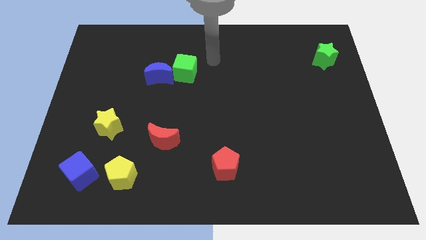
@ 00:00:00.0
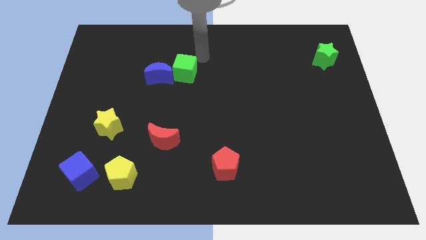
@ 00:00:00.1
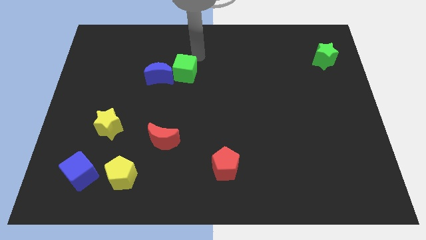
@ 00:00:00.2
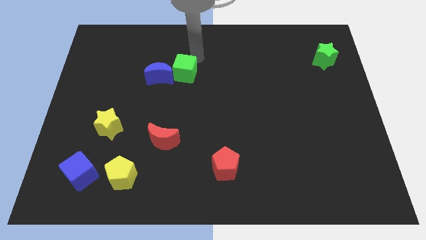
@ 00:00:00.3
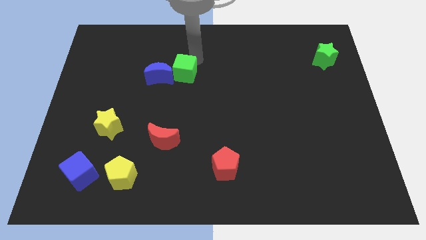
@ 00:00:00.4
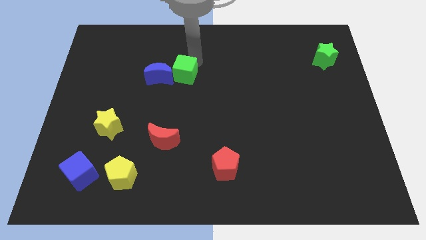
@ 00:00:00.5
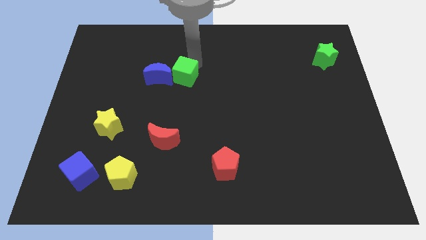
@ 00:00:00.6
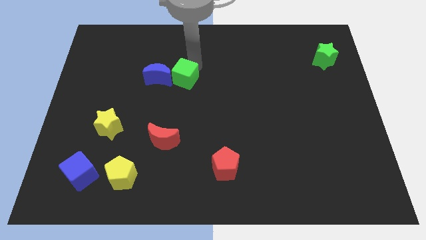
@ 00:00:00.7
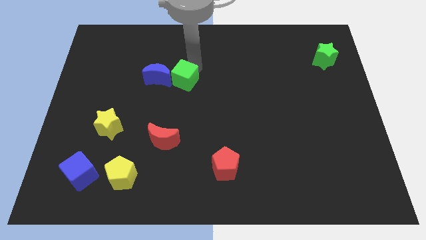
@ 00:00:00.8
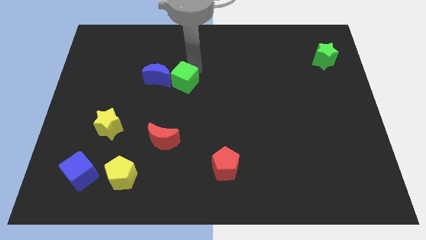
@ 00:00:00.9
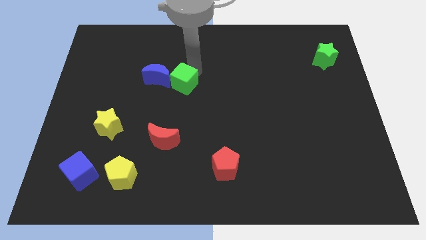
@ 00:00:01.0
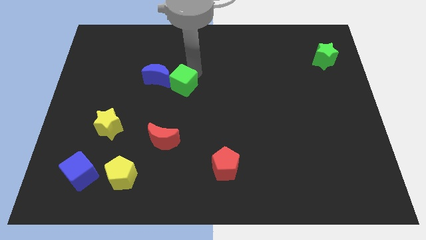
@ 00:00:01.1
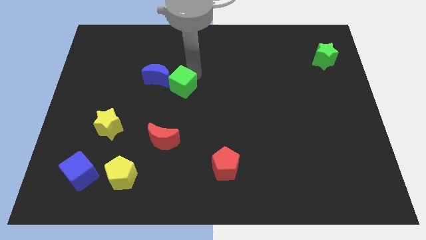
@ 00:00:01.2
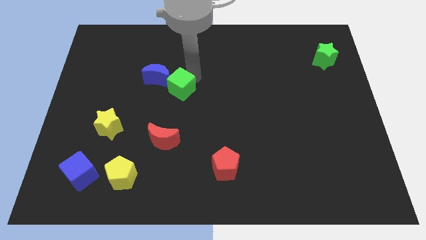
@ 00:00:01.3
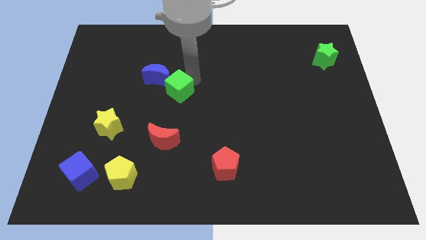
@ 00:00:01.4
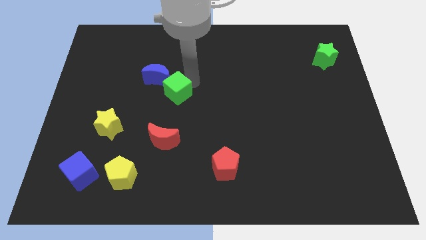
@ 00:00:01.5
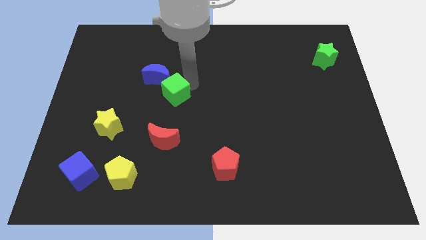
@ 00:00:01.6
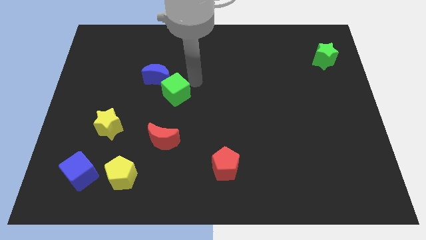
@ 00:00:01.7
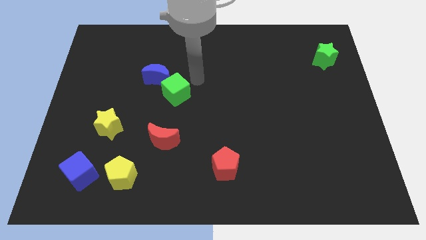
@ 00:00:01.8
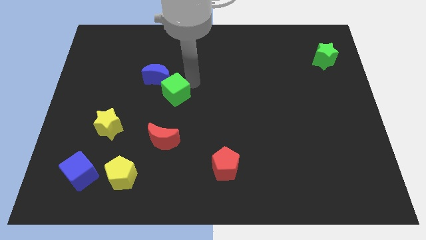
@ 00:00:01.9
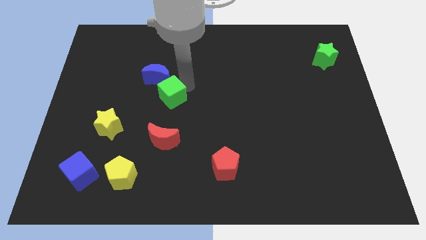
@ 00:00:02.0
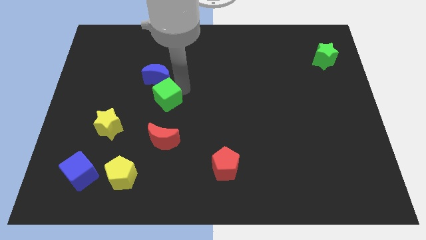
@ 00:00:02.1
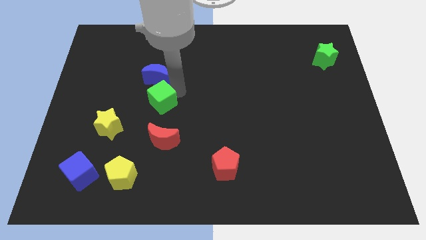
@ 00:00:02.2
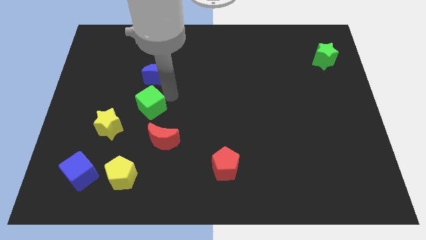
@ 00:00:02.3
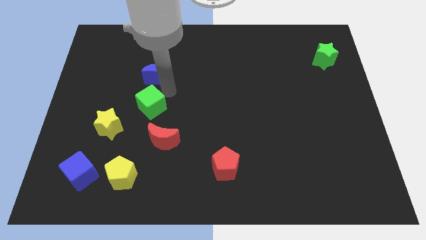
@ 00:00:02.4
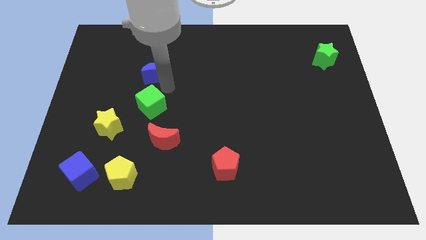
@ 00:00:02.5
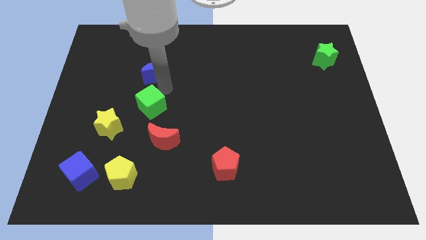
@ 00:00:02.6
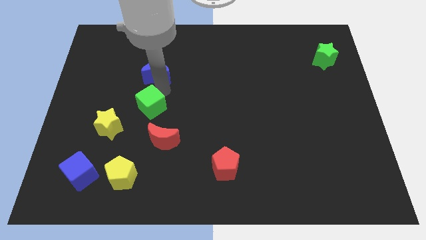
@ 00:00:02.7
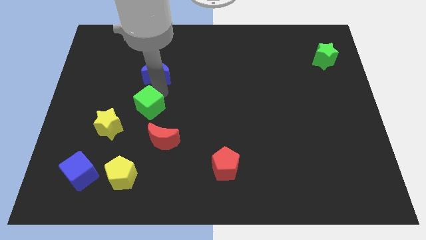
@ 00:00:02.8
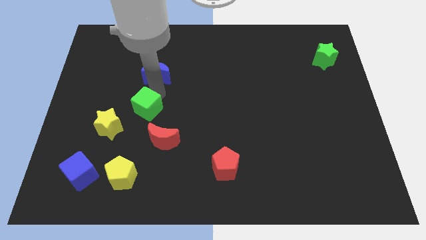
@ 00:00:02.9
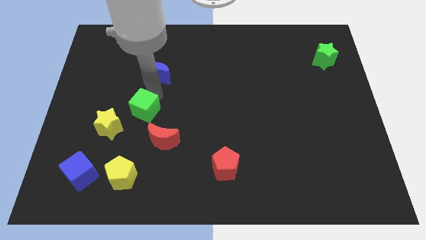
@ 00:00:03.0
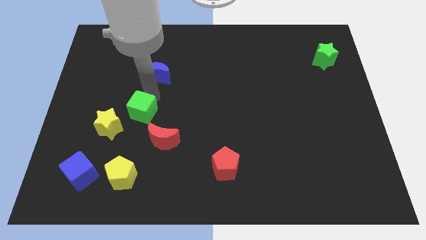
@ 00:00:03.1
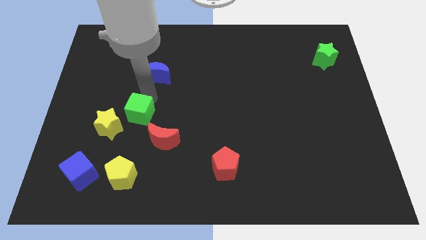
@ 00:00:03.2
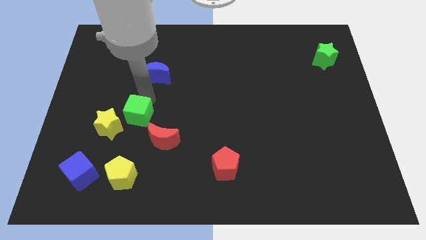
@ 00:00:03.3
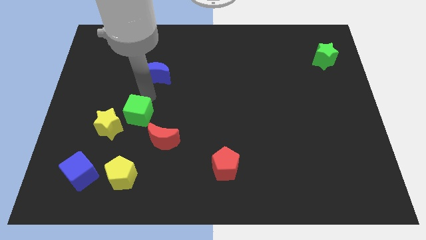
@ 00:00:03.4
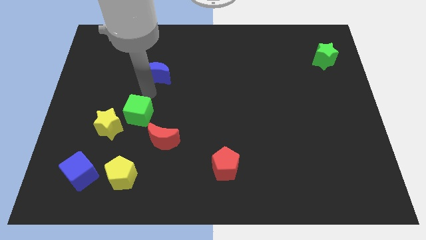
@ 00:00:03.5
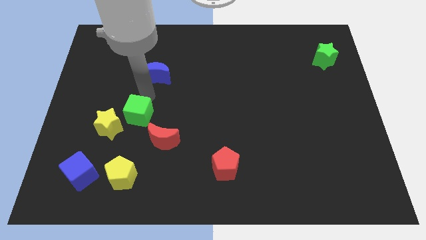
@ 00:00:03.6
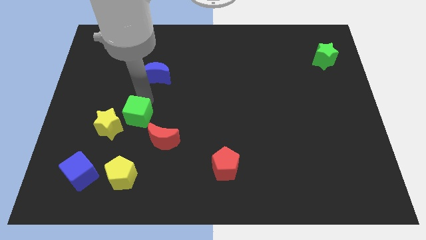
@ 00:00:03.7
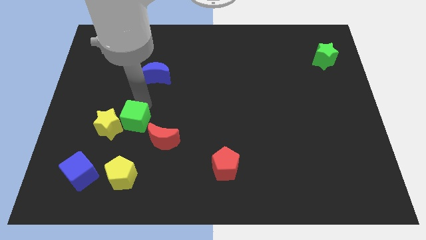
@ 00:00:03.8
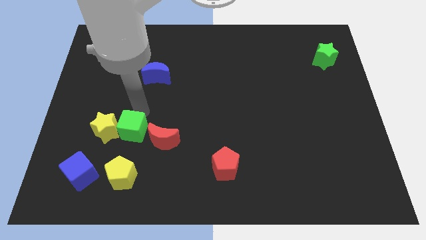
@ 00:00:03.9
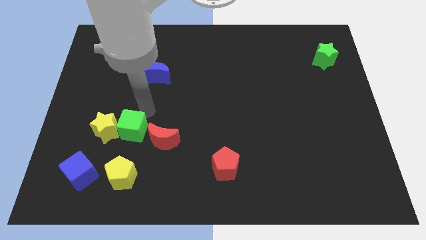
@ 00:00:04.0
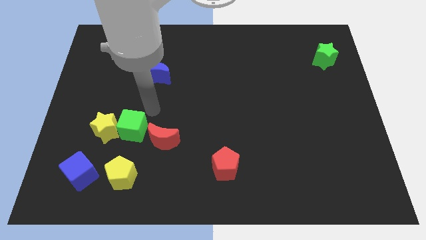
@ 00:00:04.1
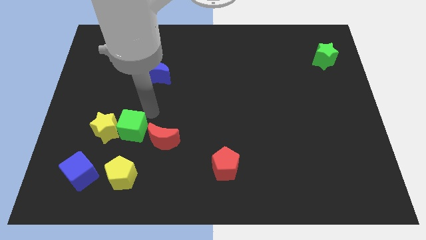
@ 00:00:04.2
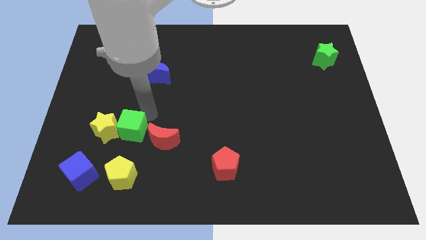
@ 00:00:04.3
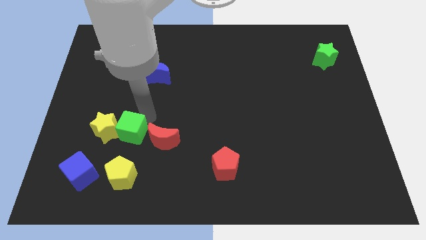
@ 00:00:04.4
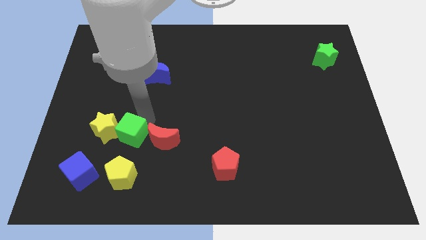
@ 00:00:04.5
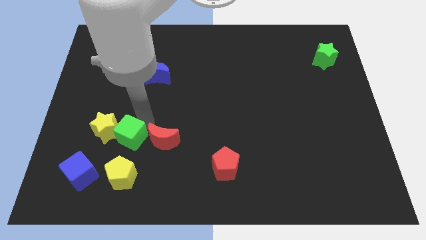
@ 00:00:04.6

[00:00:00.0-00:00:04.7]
put the green cube to the top right side of the blue cube

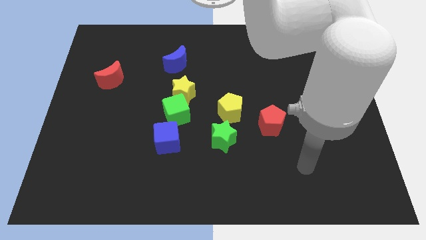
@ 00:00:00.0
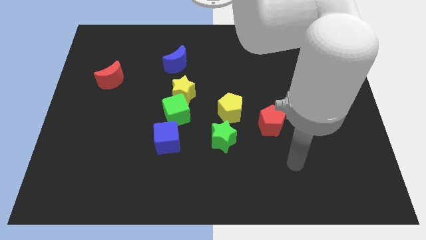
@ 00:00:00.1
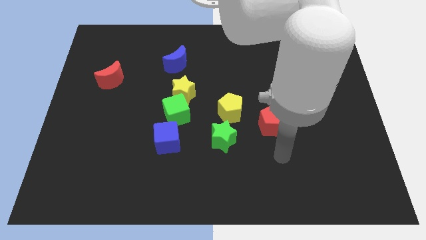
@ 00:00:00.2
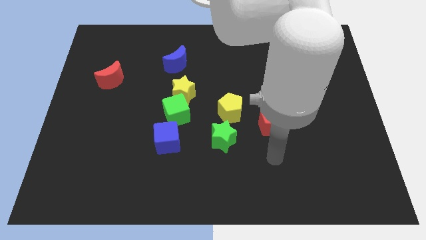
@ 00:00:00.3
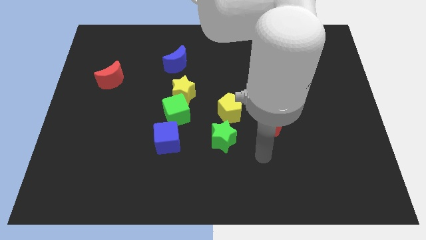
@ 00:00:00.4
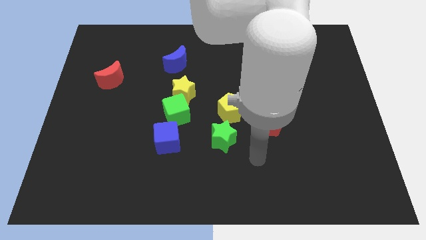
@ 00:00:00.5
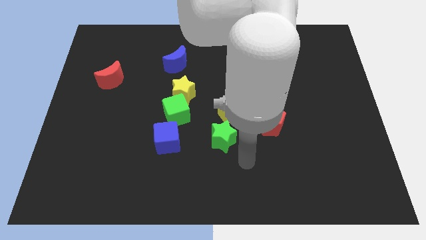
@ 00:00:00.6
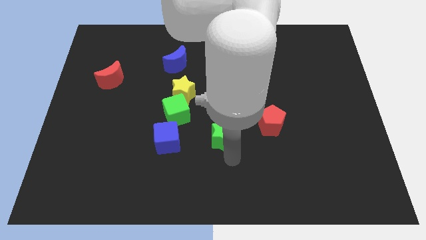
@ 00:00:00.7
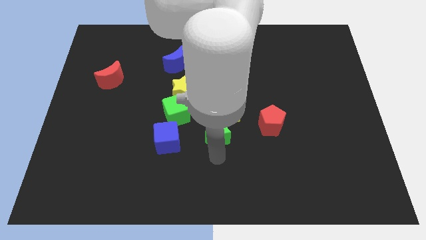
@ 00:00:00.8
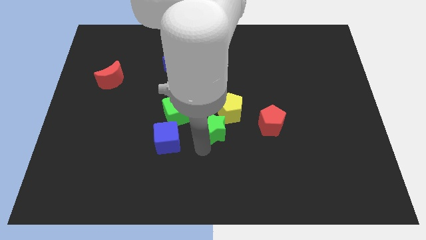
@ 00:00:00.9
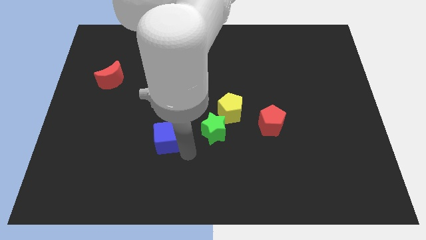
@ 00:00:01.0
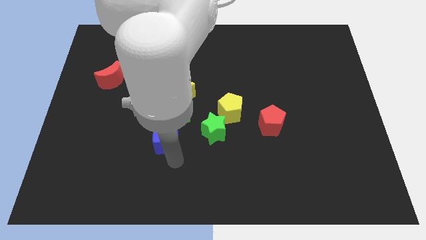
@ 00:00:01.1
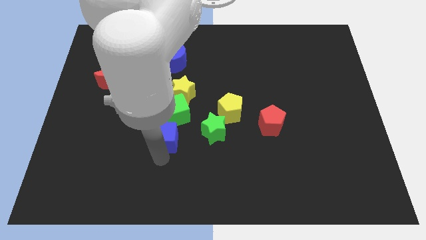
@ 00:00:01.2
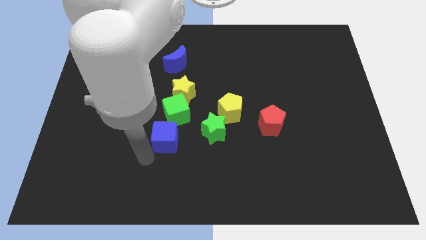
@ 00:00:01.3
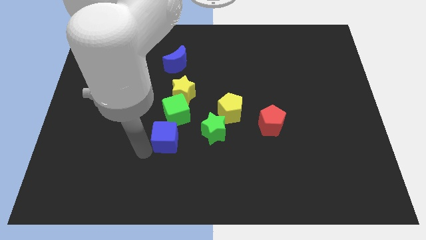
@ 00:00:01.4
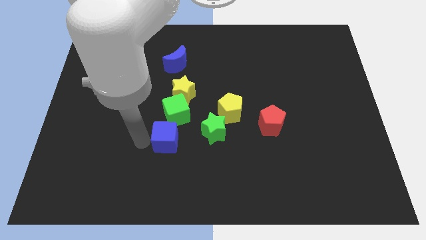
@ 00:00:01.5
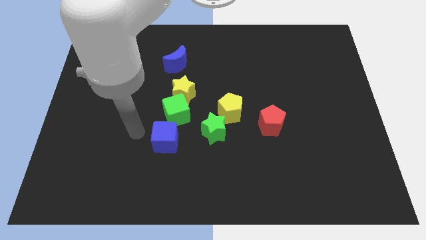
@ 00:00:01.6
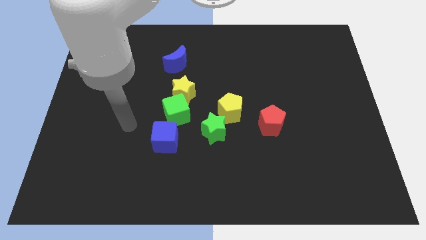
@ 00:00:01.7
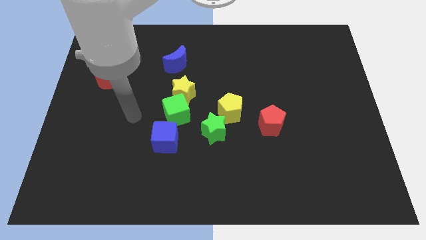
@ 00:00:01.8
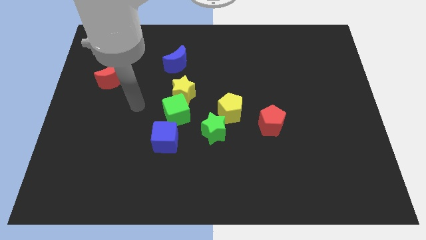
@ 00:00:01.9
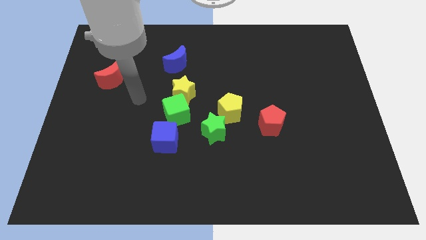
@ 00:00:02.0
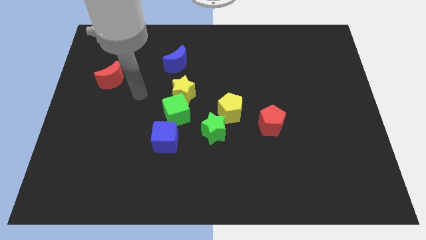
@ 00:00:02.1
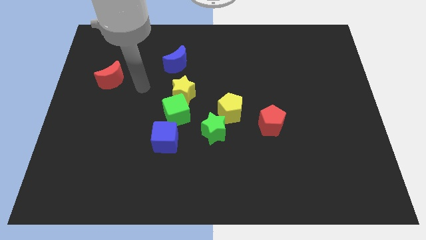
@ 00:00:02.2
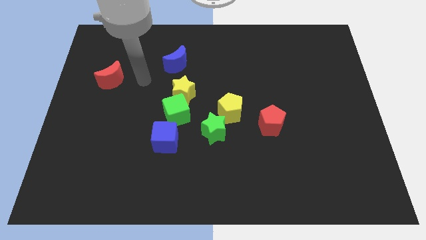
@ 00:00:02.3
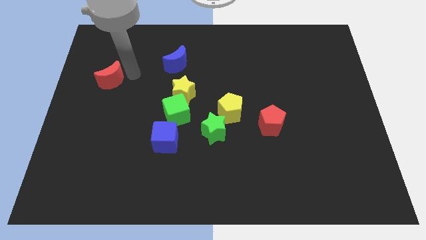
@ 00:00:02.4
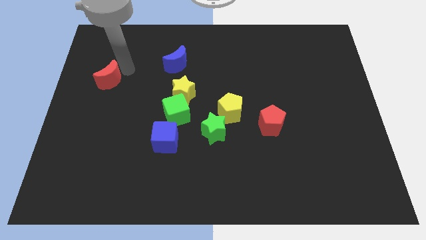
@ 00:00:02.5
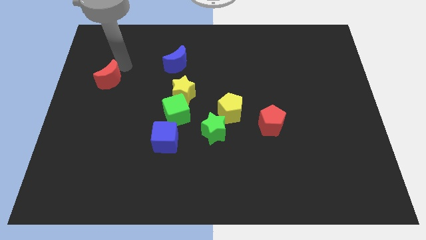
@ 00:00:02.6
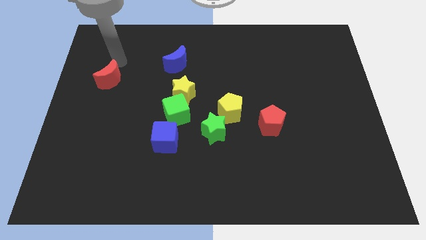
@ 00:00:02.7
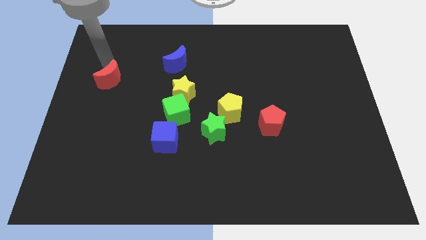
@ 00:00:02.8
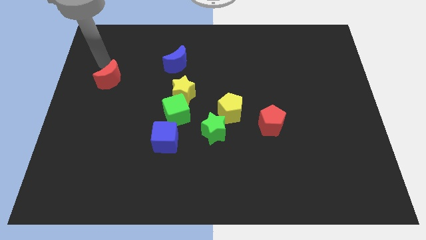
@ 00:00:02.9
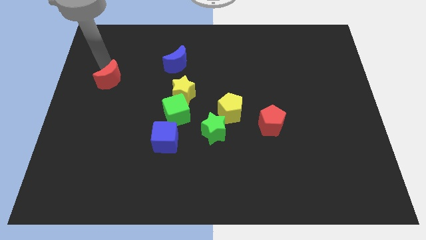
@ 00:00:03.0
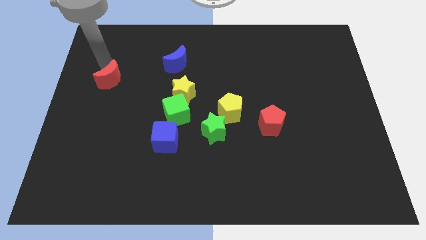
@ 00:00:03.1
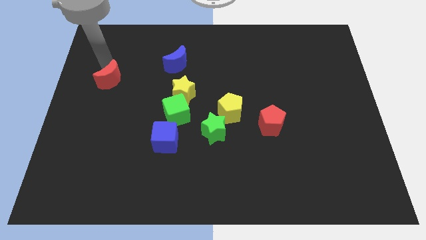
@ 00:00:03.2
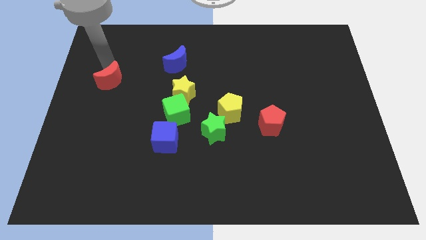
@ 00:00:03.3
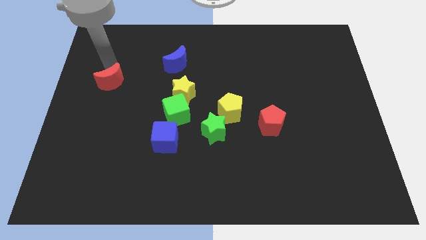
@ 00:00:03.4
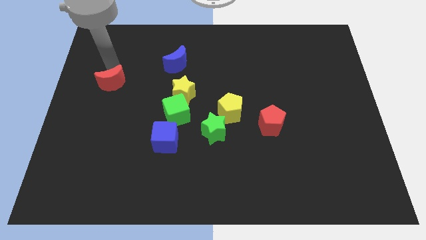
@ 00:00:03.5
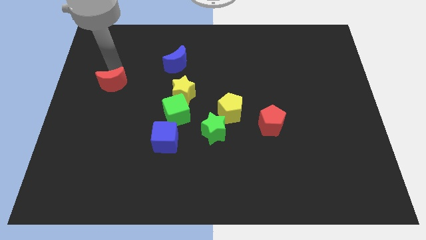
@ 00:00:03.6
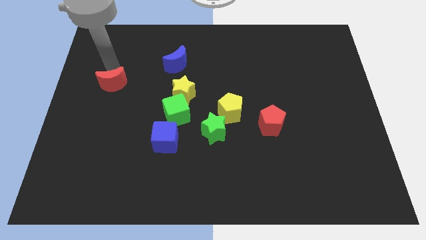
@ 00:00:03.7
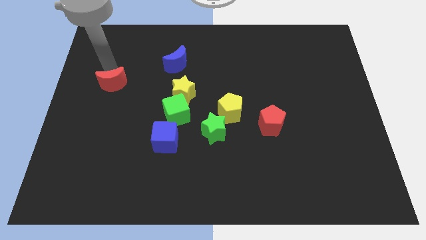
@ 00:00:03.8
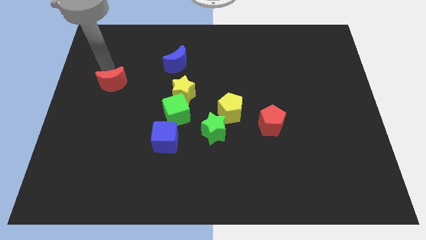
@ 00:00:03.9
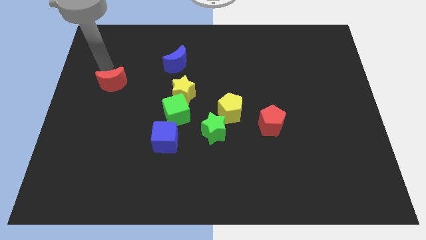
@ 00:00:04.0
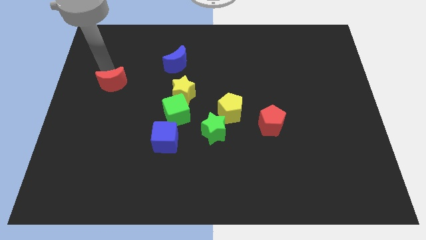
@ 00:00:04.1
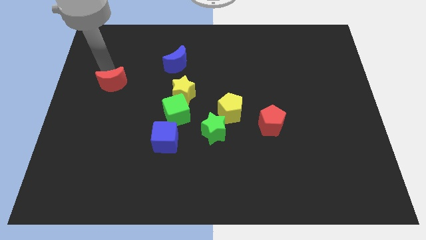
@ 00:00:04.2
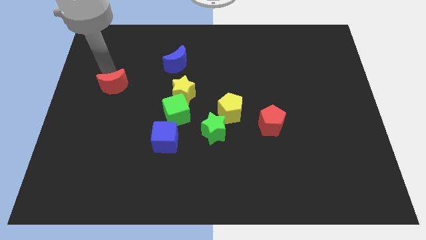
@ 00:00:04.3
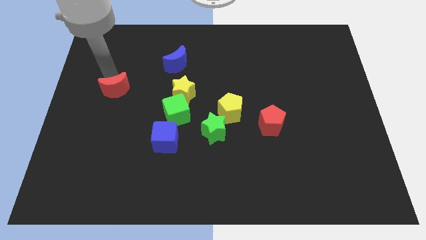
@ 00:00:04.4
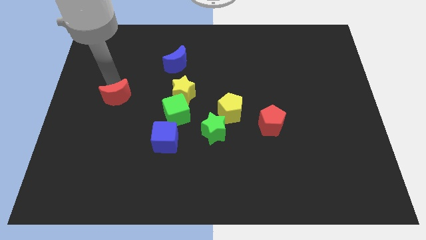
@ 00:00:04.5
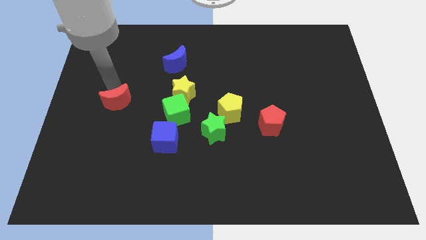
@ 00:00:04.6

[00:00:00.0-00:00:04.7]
slide the red moon to the left of the green cube
